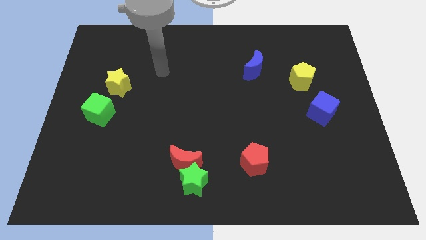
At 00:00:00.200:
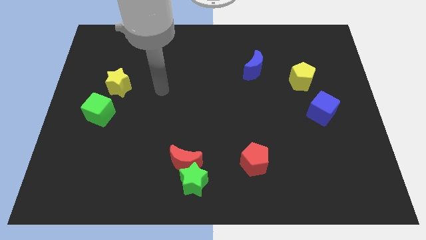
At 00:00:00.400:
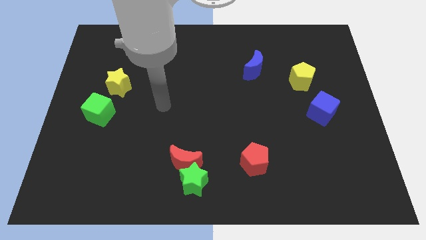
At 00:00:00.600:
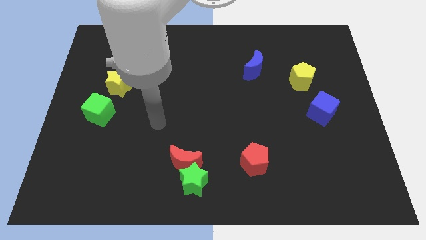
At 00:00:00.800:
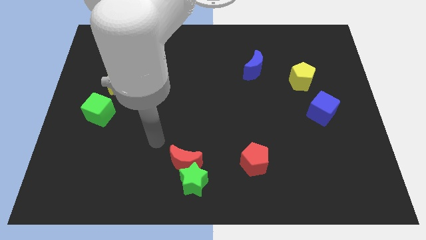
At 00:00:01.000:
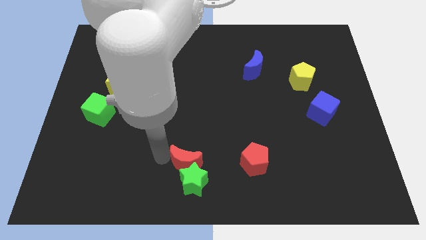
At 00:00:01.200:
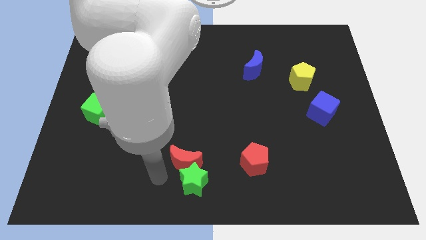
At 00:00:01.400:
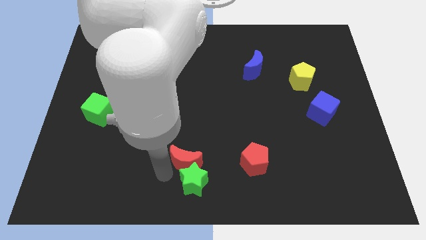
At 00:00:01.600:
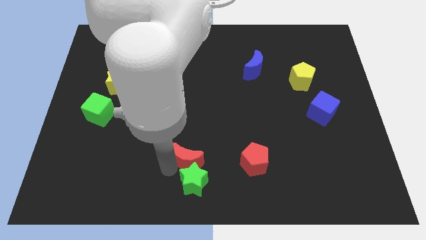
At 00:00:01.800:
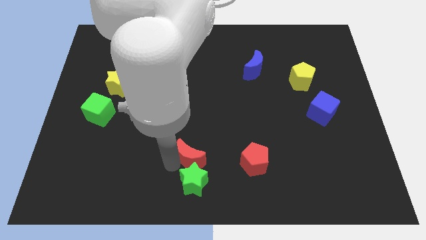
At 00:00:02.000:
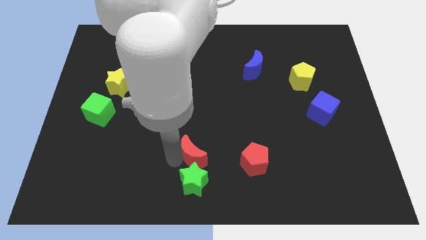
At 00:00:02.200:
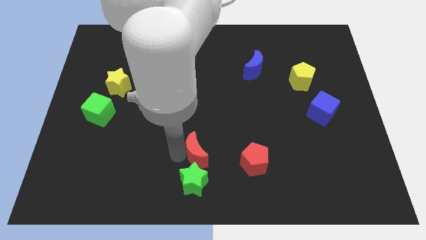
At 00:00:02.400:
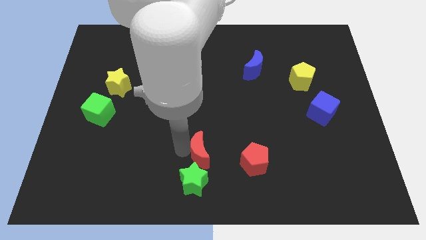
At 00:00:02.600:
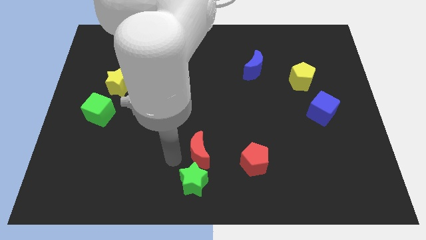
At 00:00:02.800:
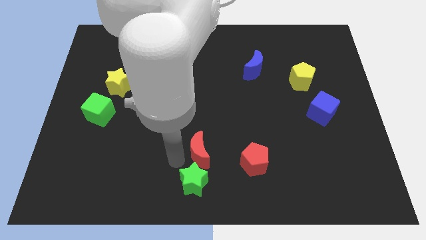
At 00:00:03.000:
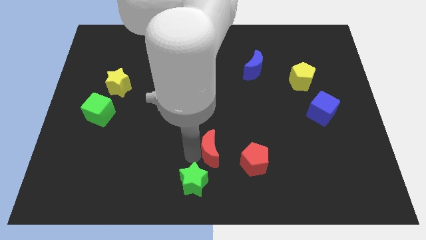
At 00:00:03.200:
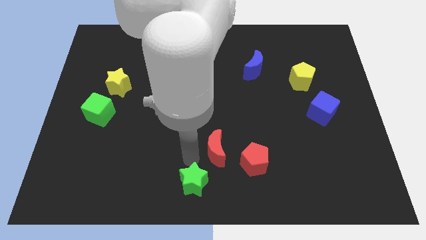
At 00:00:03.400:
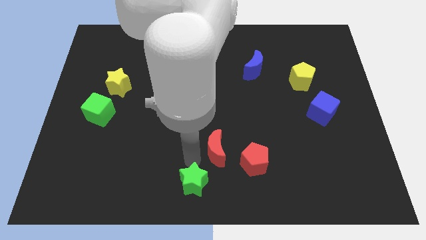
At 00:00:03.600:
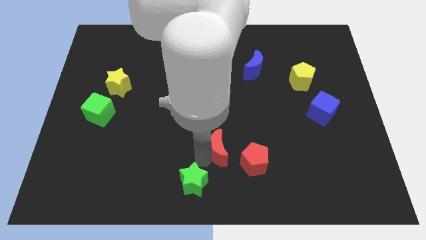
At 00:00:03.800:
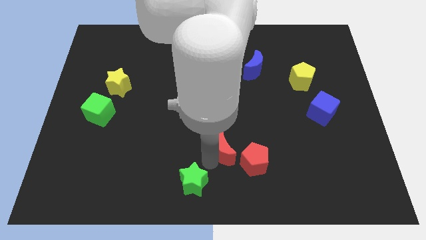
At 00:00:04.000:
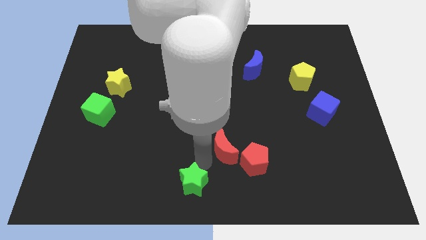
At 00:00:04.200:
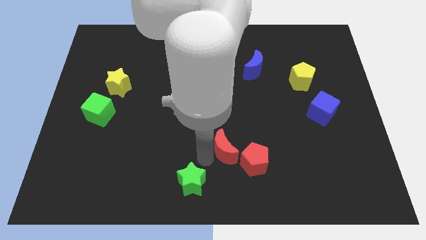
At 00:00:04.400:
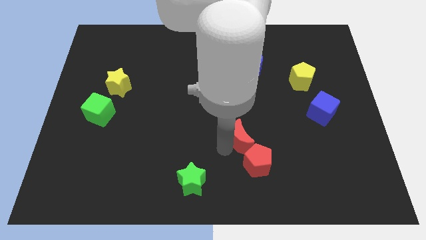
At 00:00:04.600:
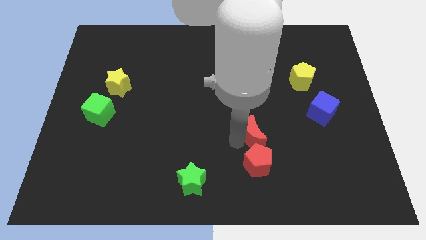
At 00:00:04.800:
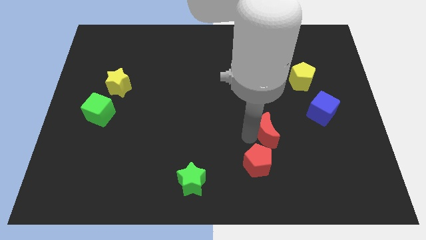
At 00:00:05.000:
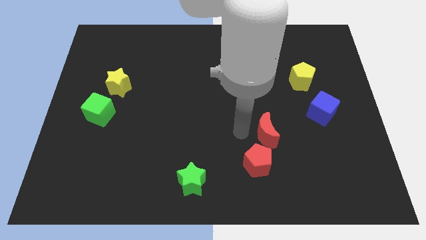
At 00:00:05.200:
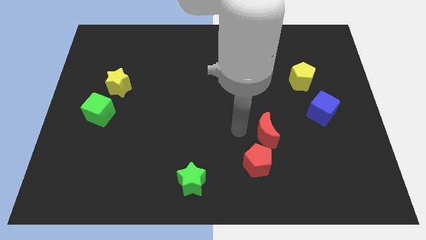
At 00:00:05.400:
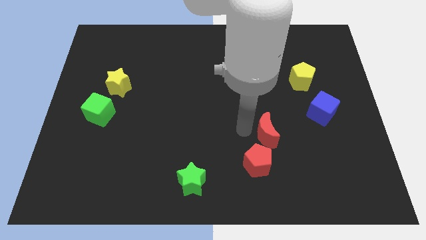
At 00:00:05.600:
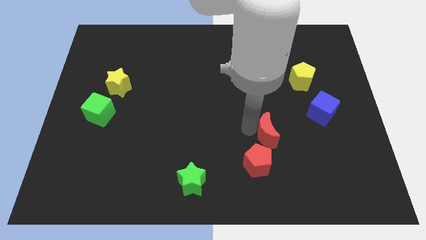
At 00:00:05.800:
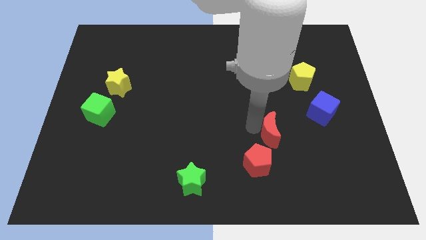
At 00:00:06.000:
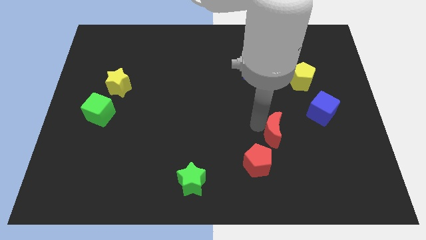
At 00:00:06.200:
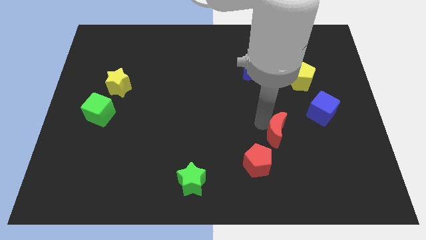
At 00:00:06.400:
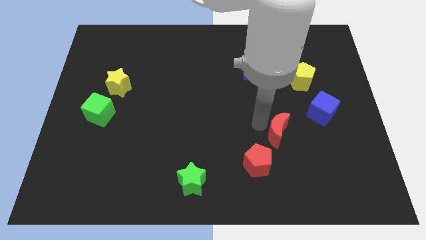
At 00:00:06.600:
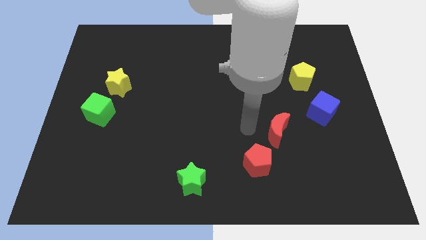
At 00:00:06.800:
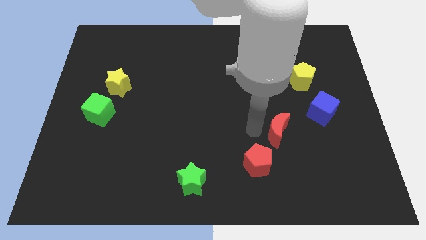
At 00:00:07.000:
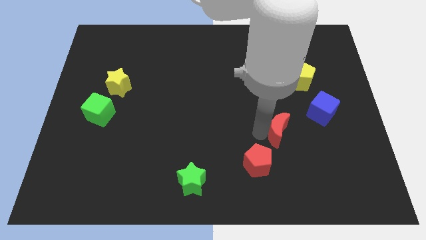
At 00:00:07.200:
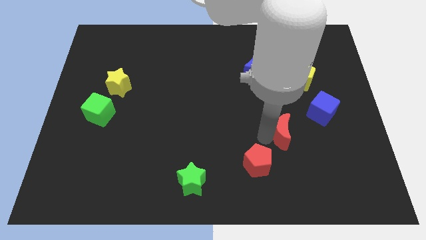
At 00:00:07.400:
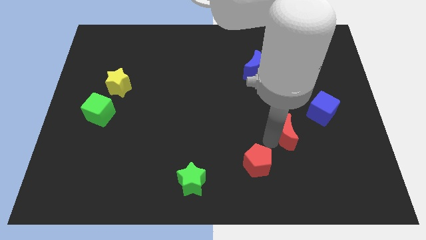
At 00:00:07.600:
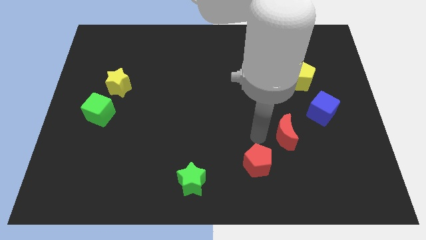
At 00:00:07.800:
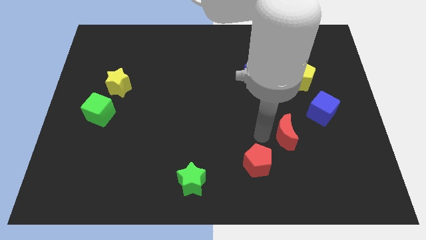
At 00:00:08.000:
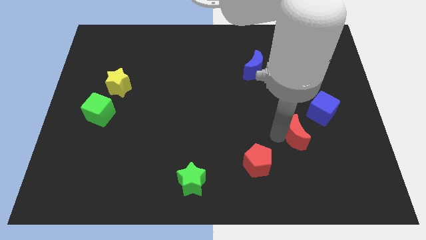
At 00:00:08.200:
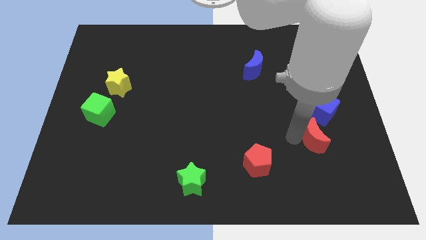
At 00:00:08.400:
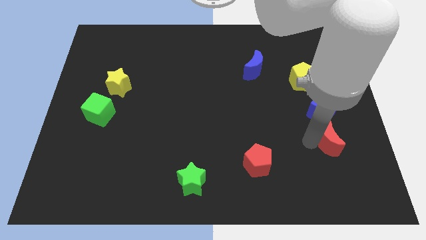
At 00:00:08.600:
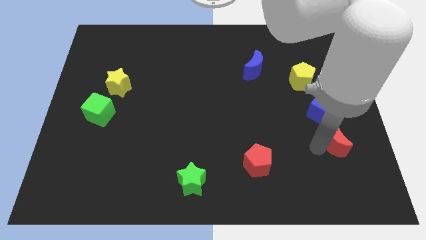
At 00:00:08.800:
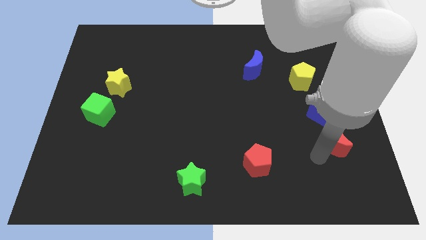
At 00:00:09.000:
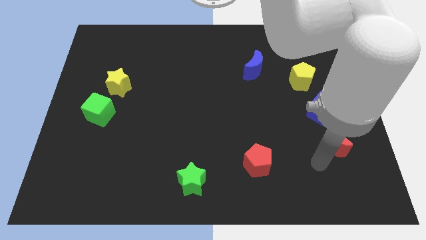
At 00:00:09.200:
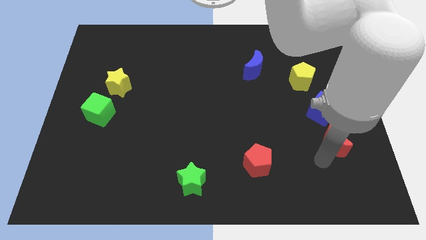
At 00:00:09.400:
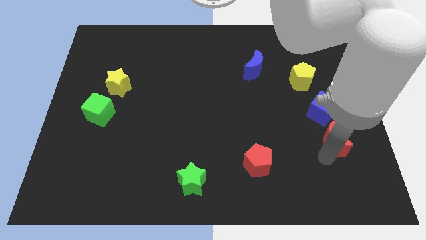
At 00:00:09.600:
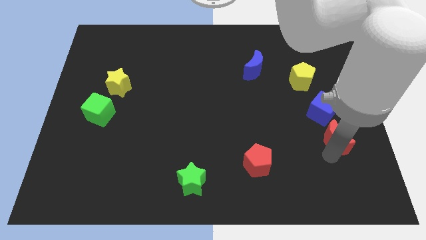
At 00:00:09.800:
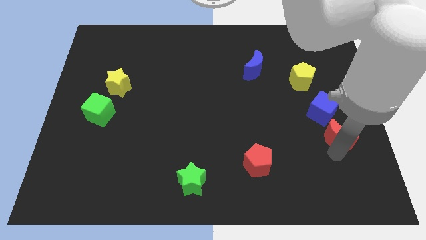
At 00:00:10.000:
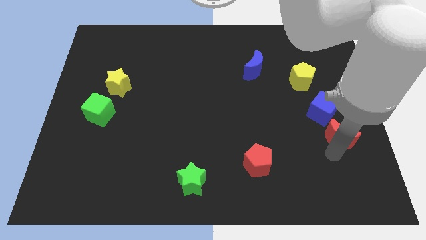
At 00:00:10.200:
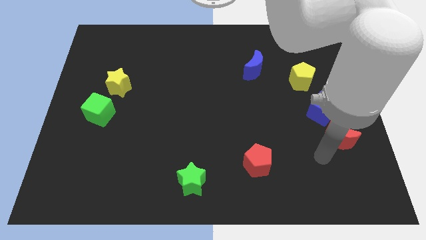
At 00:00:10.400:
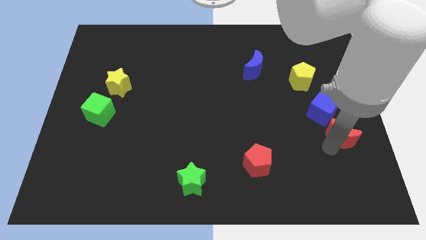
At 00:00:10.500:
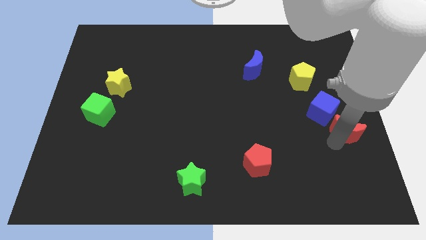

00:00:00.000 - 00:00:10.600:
move the red moon to the right side

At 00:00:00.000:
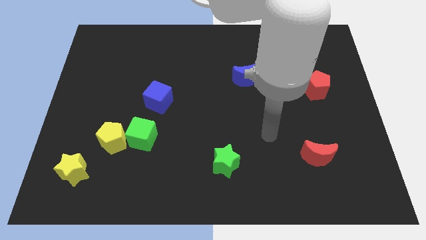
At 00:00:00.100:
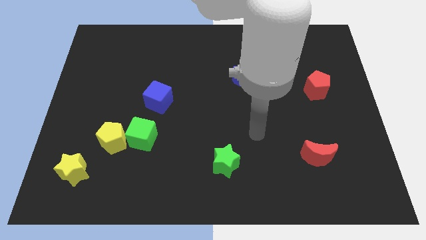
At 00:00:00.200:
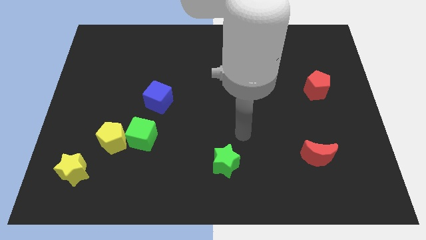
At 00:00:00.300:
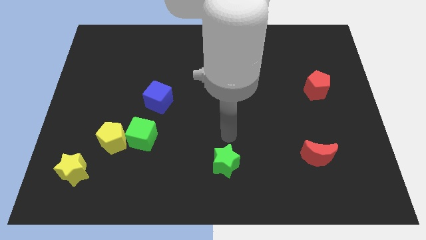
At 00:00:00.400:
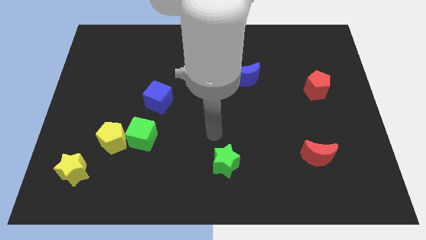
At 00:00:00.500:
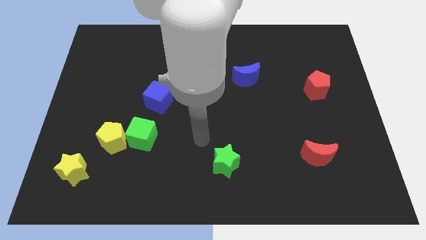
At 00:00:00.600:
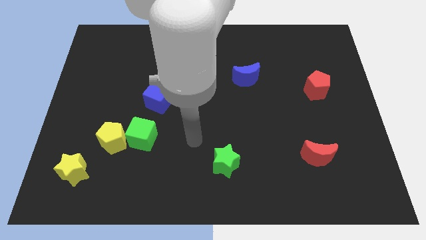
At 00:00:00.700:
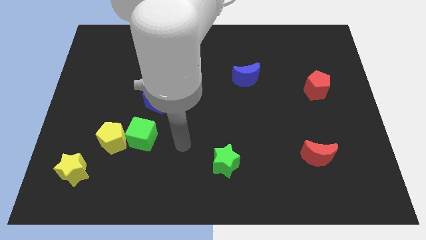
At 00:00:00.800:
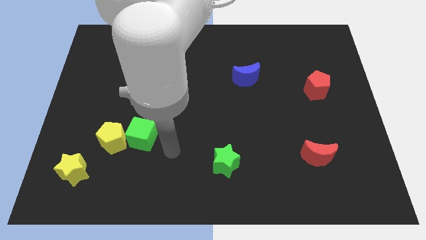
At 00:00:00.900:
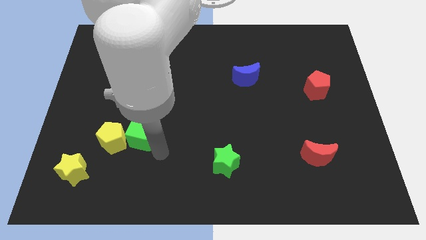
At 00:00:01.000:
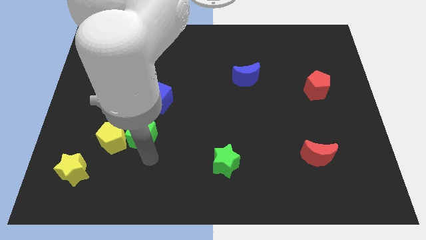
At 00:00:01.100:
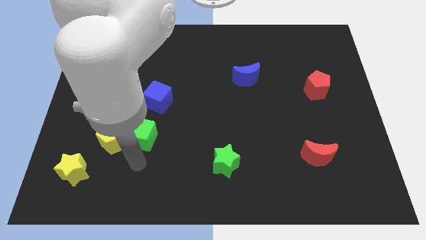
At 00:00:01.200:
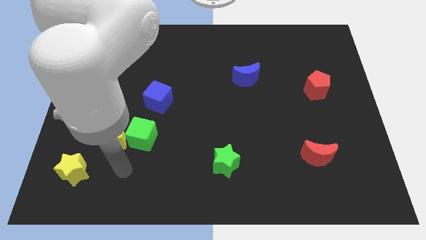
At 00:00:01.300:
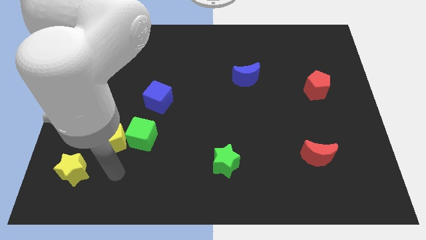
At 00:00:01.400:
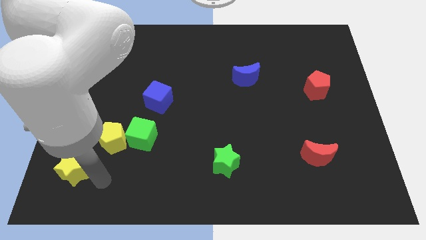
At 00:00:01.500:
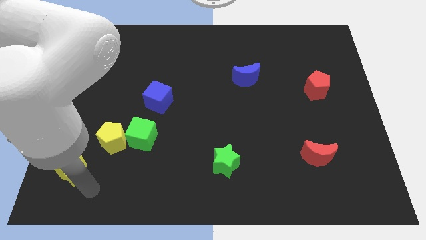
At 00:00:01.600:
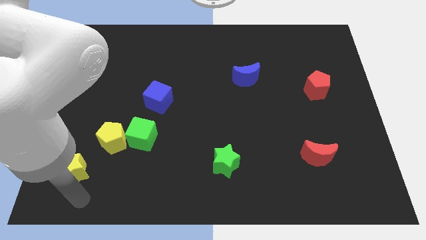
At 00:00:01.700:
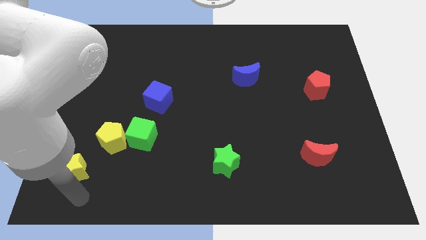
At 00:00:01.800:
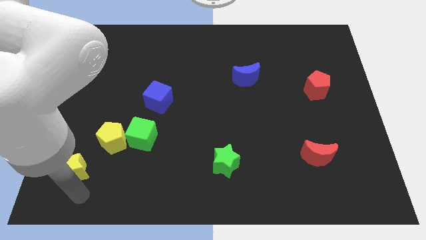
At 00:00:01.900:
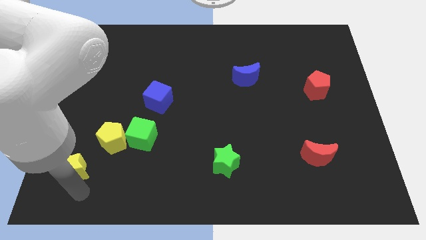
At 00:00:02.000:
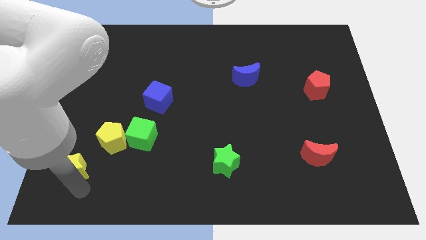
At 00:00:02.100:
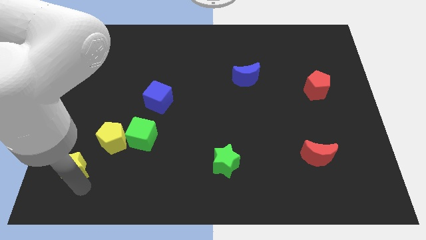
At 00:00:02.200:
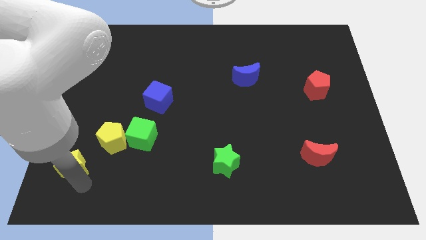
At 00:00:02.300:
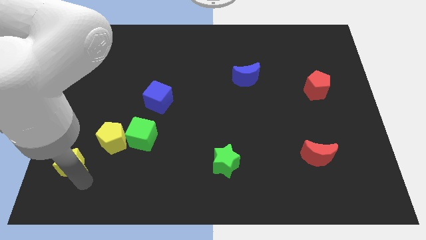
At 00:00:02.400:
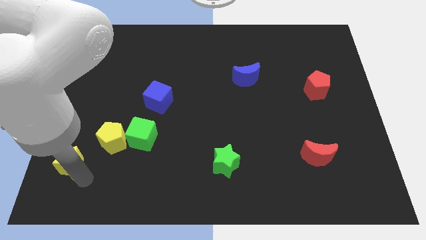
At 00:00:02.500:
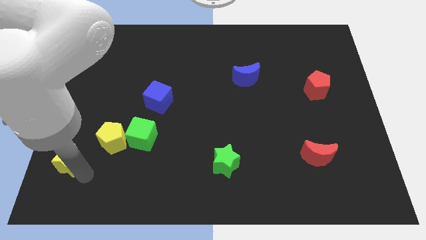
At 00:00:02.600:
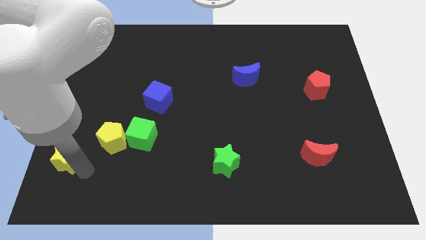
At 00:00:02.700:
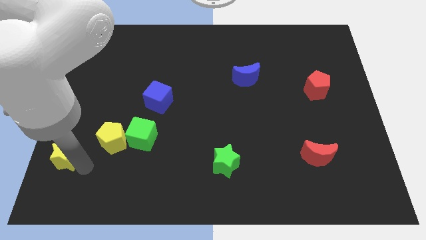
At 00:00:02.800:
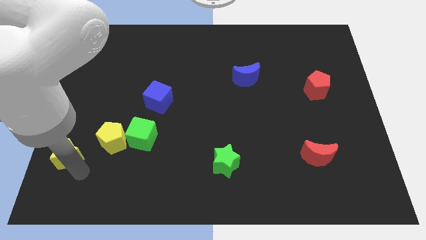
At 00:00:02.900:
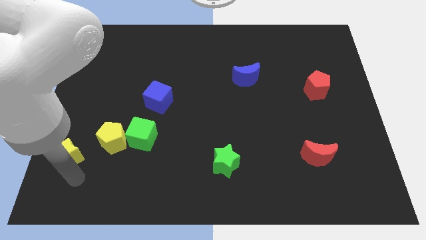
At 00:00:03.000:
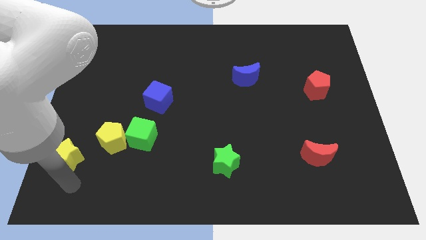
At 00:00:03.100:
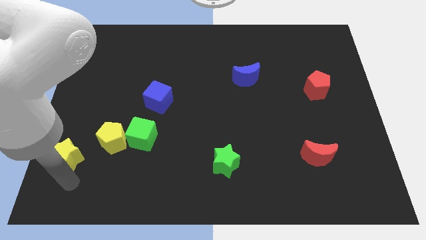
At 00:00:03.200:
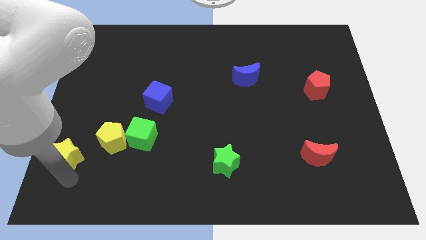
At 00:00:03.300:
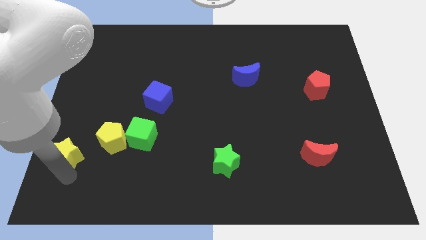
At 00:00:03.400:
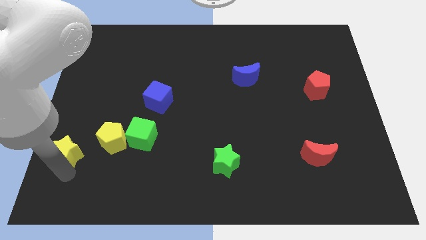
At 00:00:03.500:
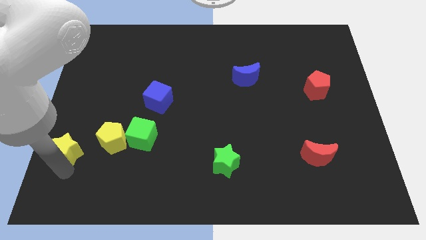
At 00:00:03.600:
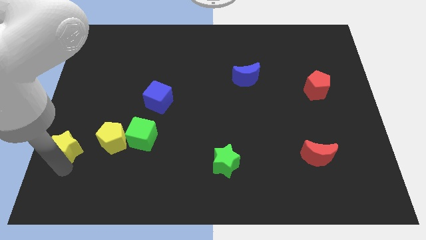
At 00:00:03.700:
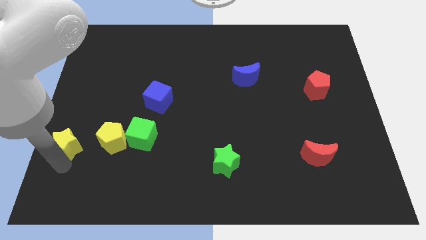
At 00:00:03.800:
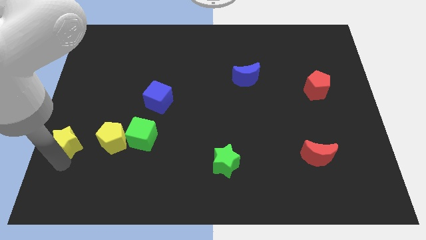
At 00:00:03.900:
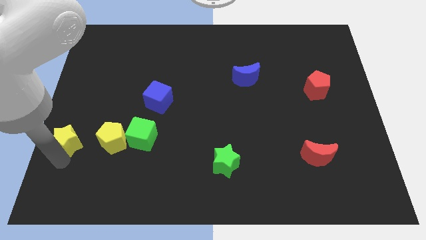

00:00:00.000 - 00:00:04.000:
push the yellow star to the center left
